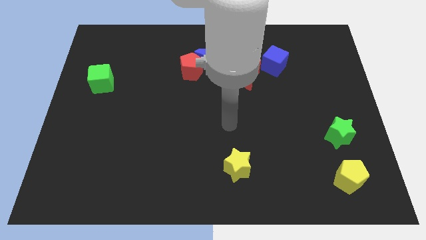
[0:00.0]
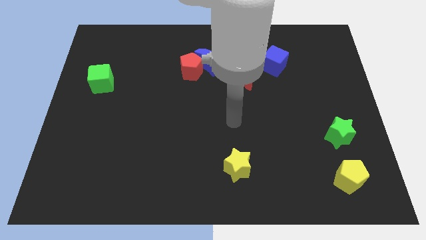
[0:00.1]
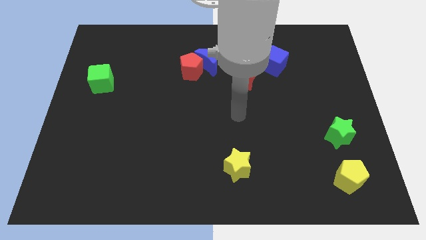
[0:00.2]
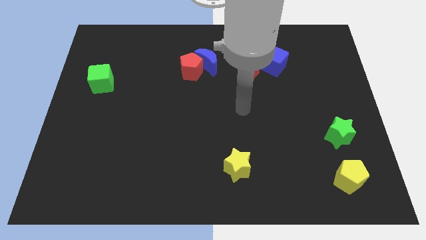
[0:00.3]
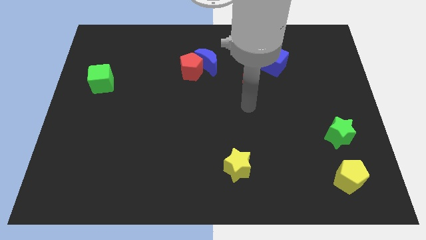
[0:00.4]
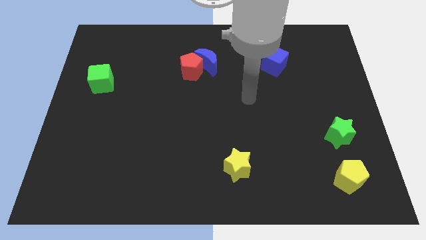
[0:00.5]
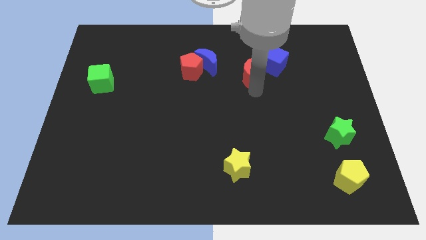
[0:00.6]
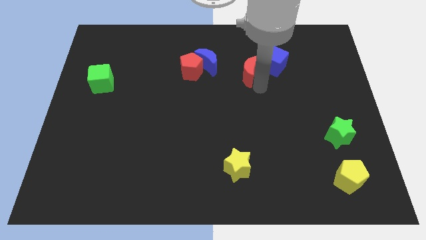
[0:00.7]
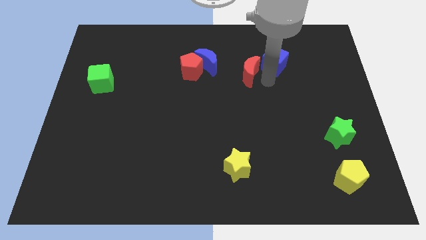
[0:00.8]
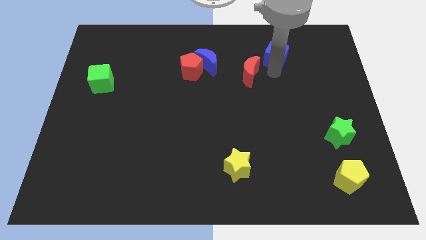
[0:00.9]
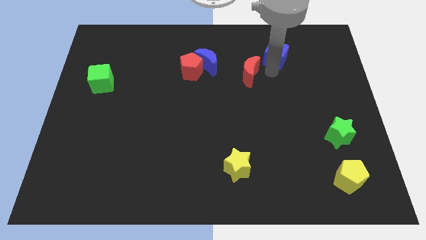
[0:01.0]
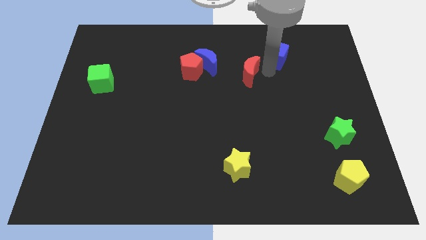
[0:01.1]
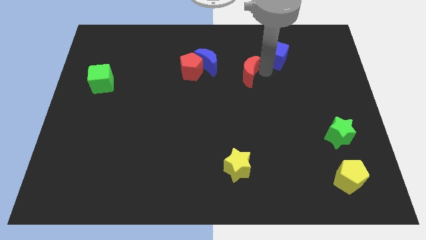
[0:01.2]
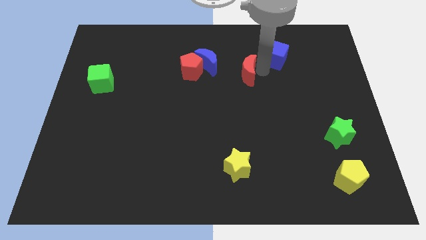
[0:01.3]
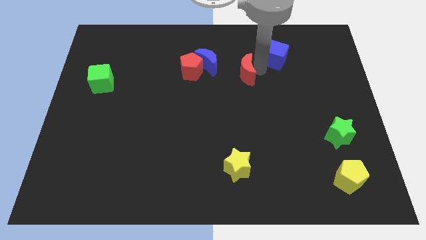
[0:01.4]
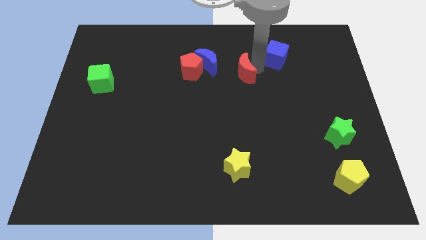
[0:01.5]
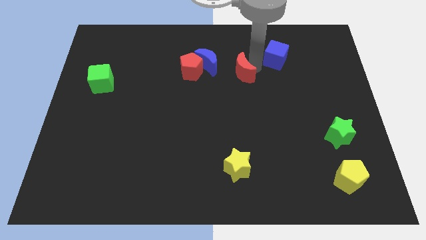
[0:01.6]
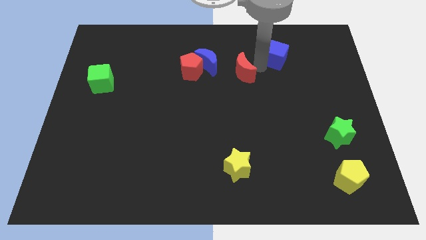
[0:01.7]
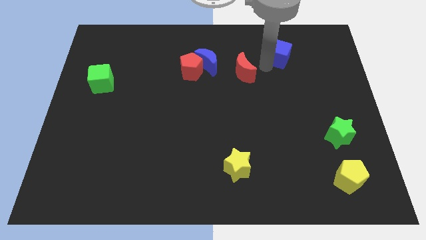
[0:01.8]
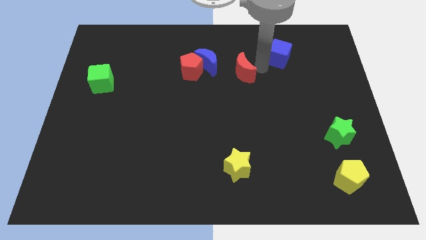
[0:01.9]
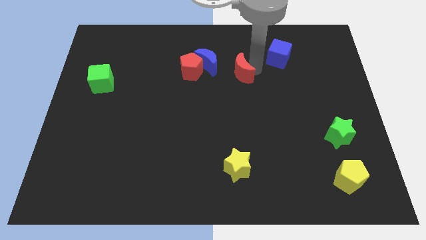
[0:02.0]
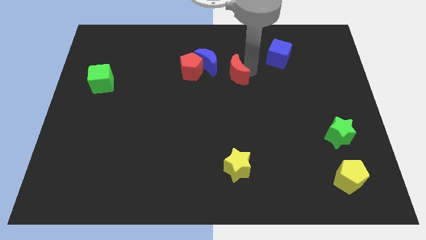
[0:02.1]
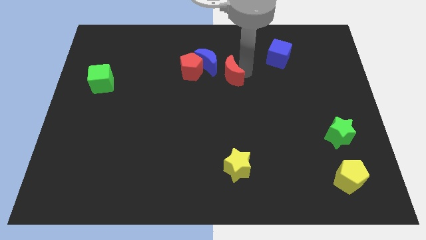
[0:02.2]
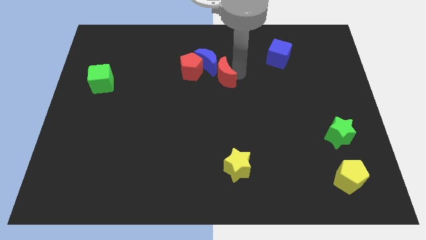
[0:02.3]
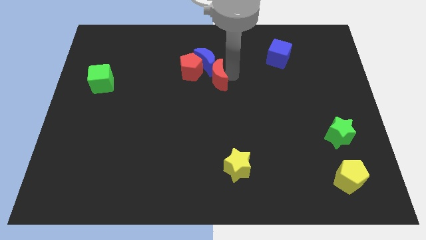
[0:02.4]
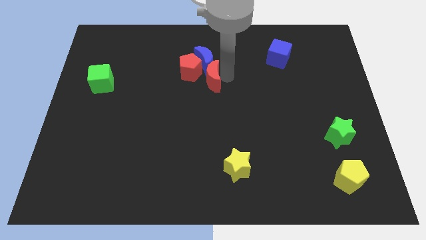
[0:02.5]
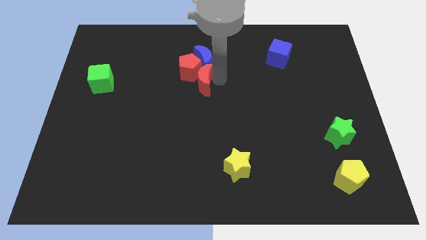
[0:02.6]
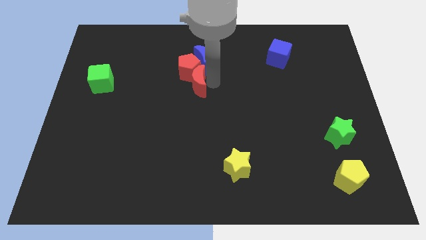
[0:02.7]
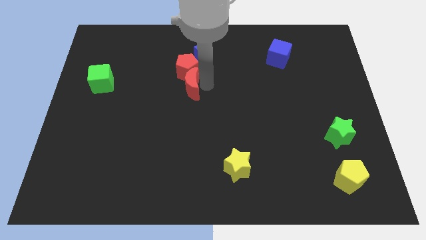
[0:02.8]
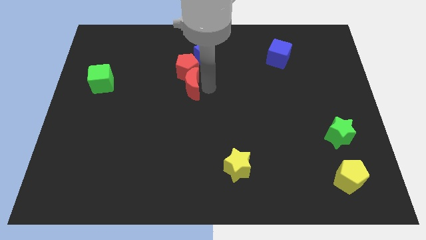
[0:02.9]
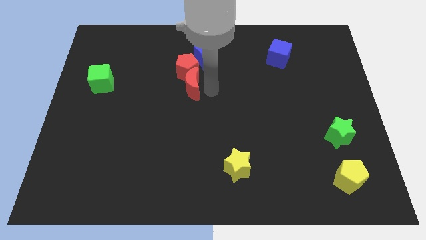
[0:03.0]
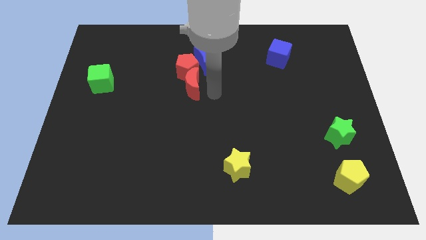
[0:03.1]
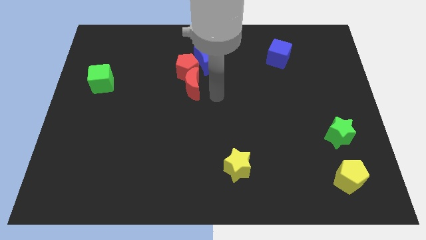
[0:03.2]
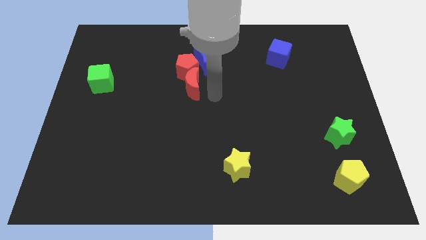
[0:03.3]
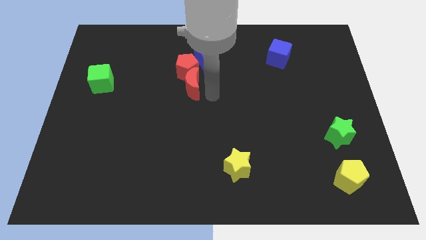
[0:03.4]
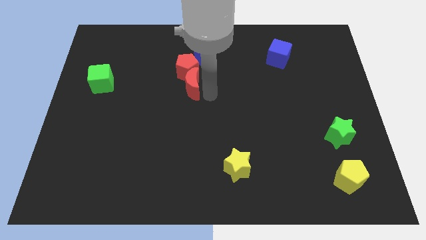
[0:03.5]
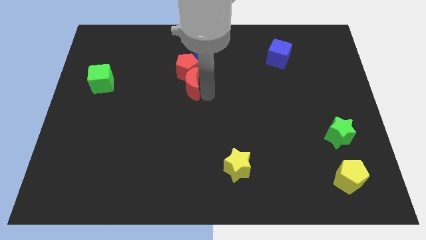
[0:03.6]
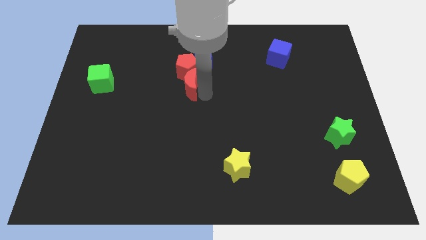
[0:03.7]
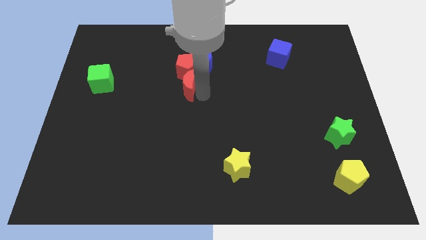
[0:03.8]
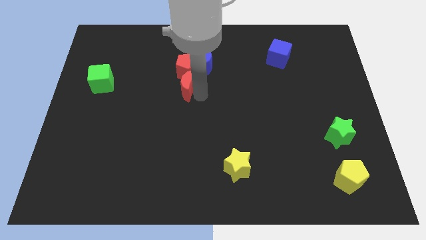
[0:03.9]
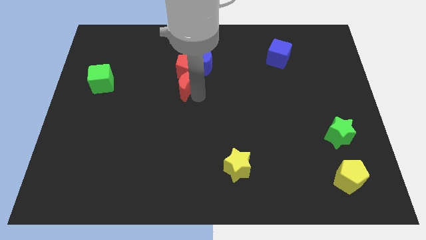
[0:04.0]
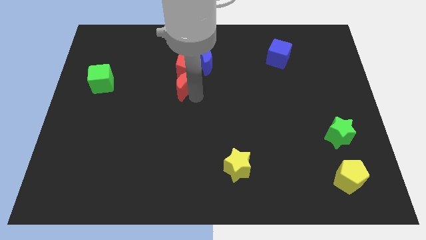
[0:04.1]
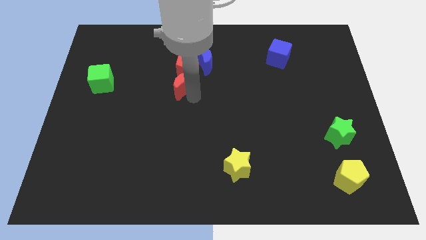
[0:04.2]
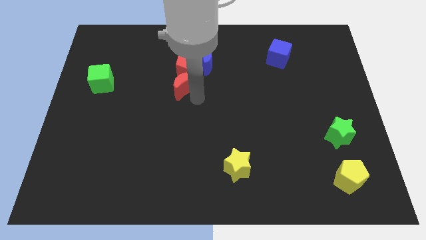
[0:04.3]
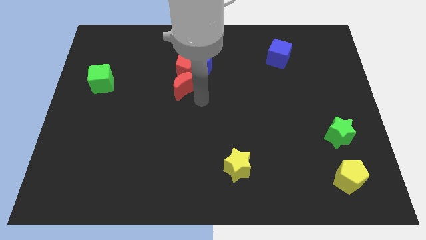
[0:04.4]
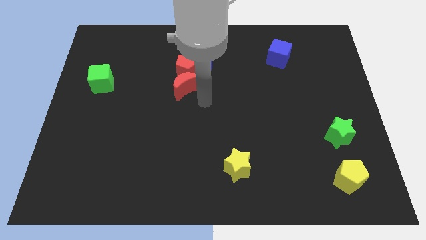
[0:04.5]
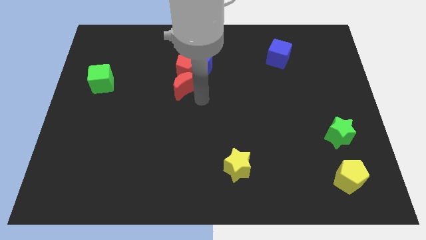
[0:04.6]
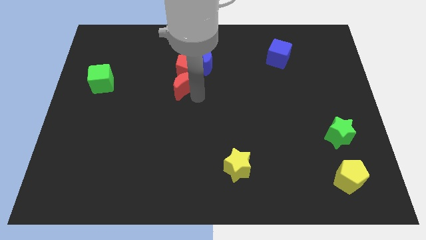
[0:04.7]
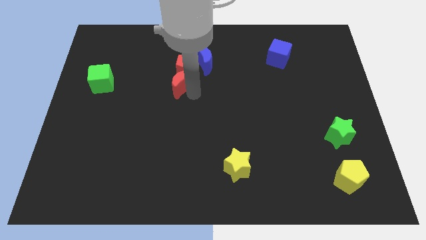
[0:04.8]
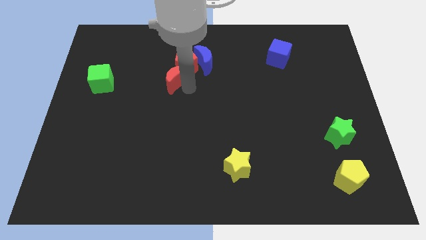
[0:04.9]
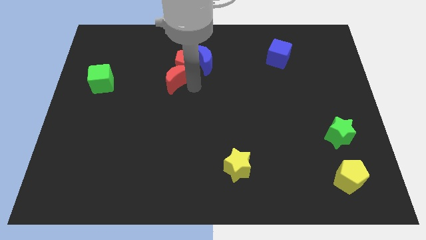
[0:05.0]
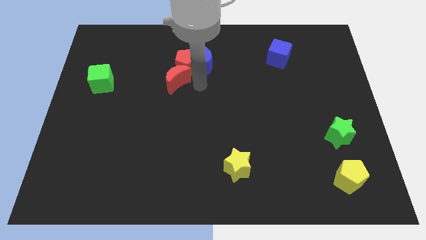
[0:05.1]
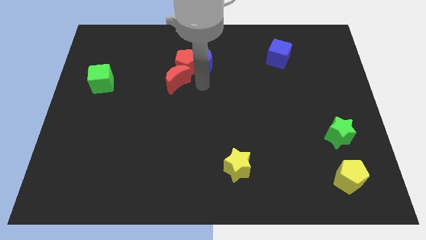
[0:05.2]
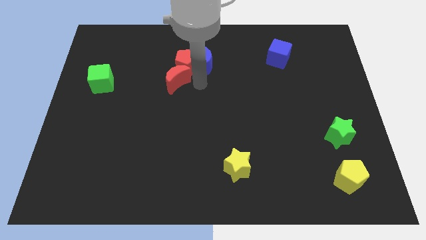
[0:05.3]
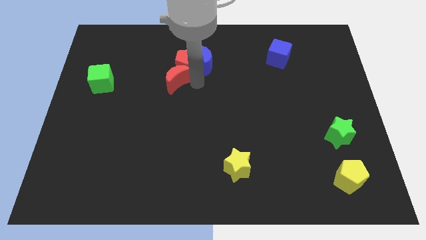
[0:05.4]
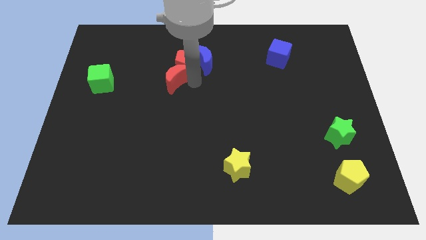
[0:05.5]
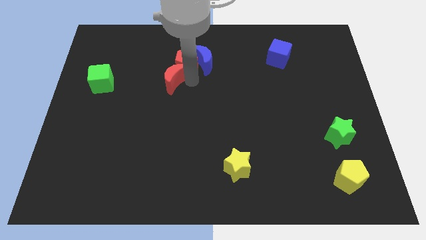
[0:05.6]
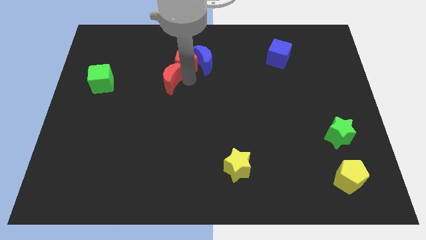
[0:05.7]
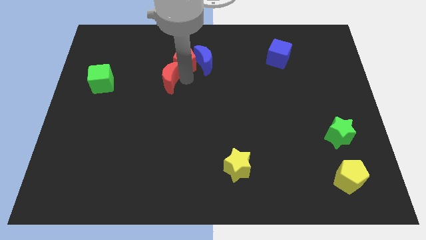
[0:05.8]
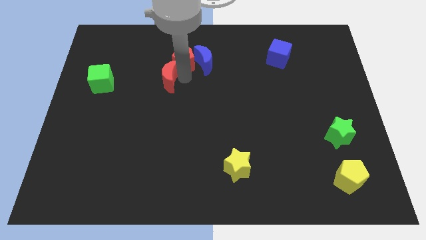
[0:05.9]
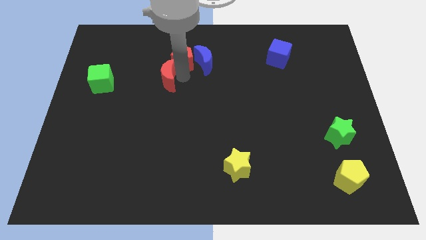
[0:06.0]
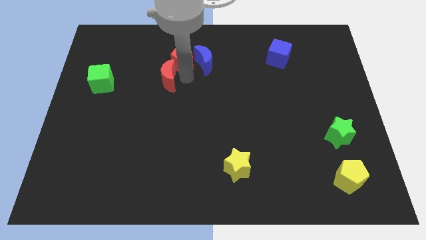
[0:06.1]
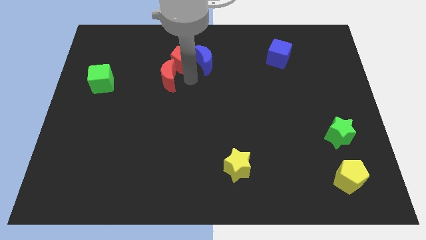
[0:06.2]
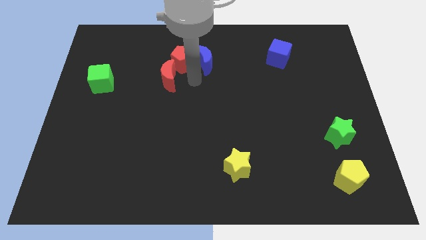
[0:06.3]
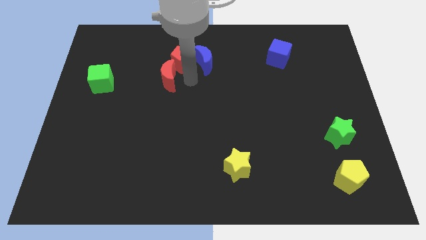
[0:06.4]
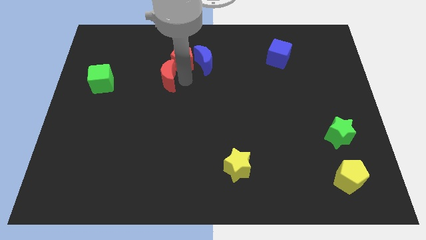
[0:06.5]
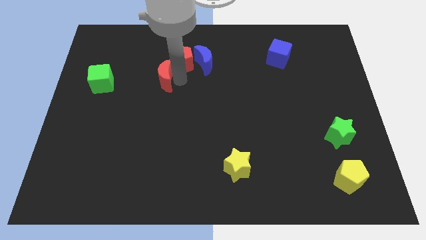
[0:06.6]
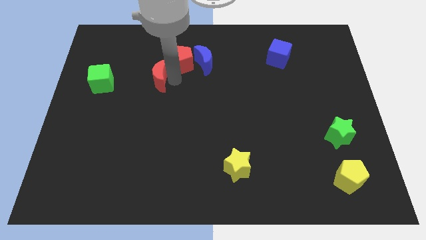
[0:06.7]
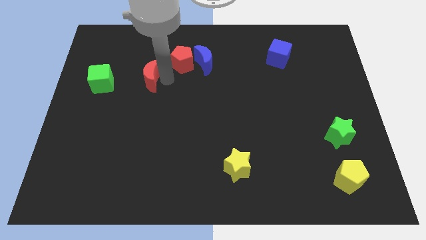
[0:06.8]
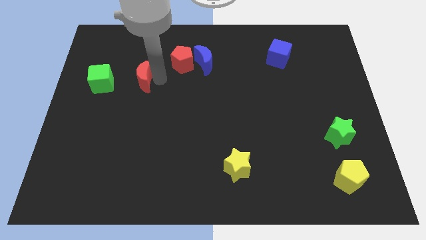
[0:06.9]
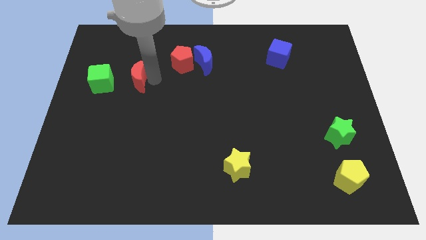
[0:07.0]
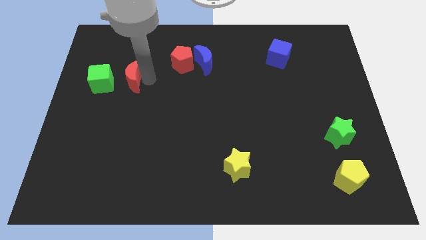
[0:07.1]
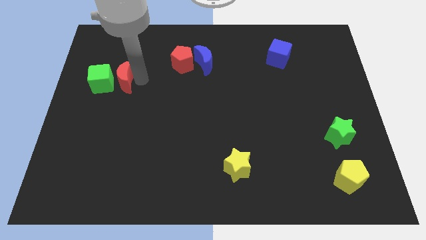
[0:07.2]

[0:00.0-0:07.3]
put the red moon towards the green cube

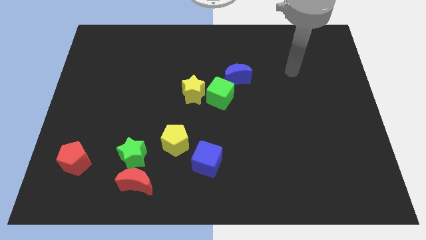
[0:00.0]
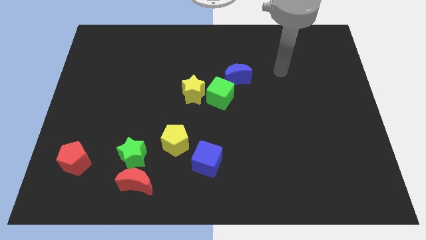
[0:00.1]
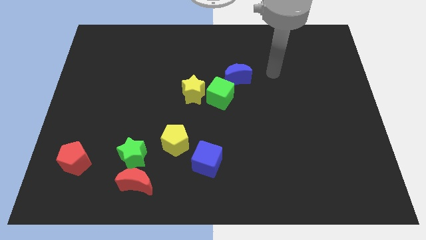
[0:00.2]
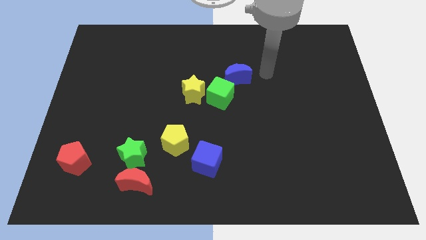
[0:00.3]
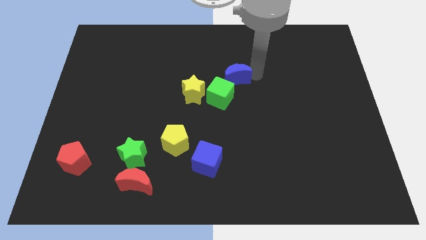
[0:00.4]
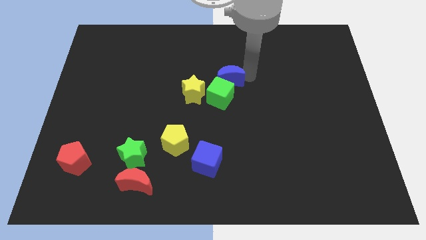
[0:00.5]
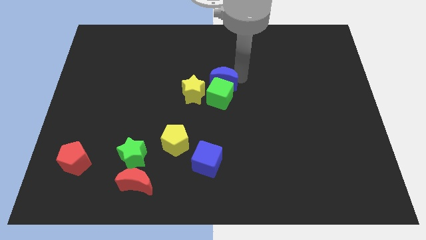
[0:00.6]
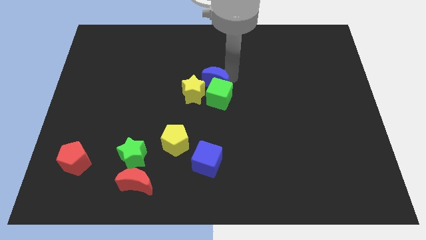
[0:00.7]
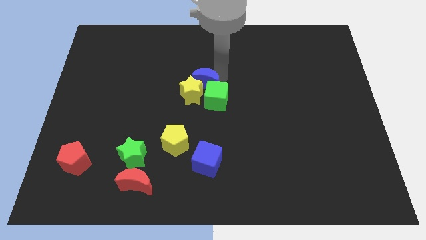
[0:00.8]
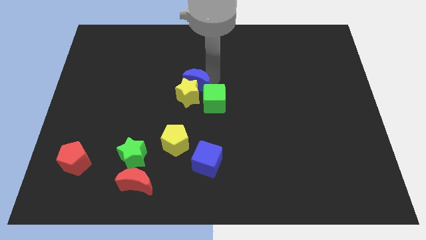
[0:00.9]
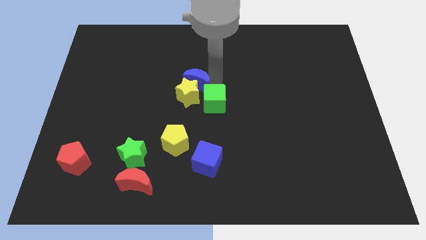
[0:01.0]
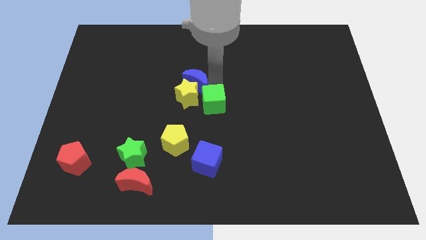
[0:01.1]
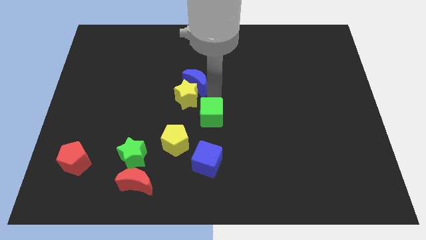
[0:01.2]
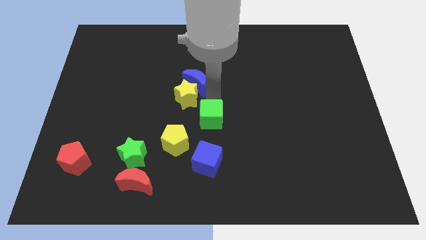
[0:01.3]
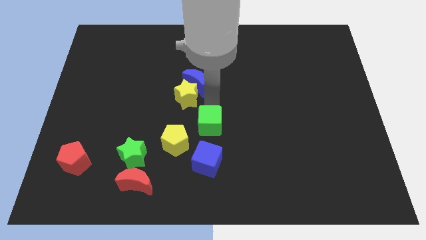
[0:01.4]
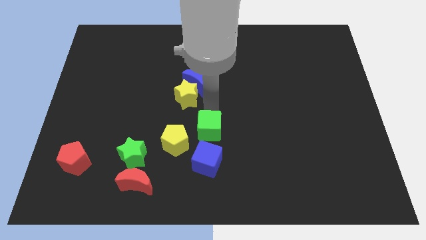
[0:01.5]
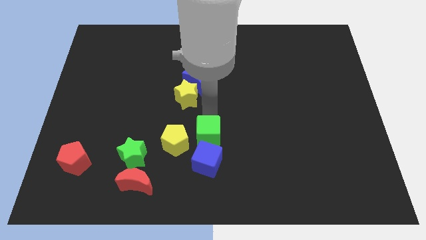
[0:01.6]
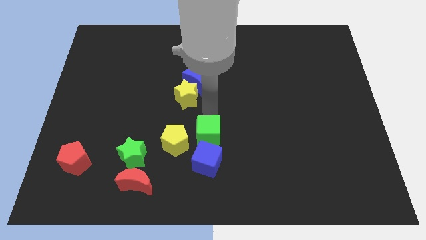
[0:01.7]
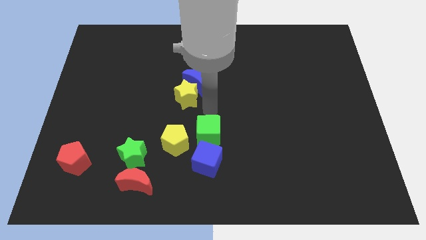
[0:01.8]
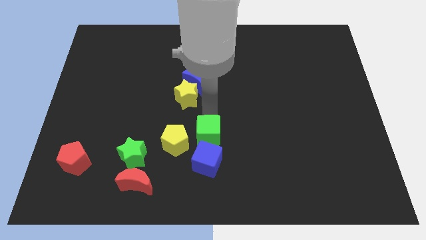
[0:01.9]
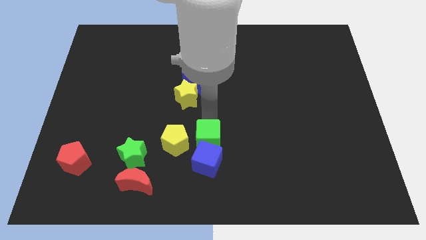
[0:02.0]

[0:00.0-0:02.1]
push the green cube to the blue cube
